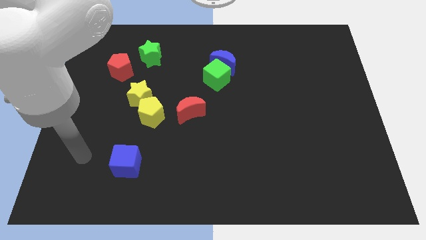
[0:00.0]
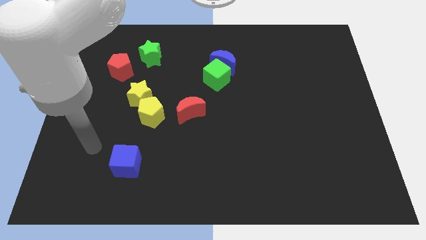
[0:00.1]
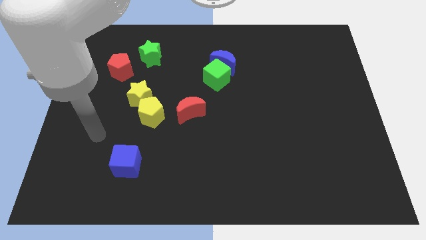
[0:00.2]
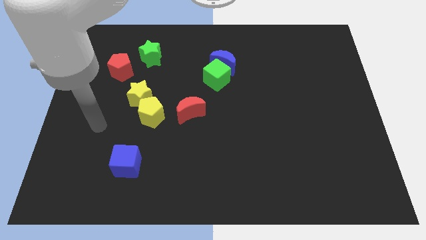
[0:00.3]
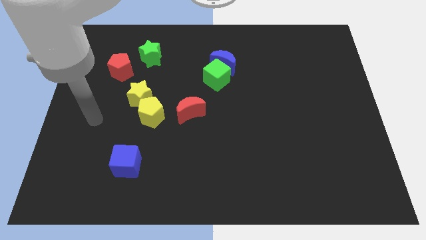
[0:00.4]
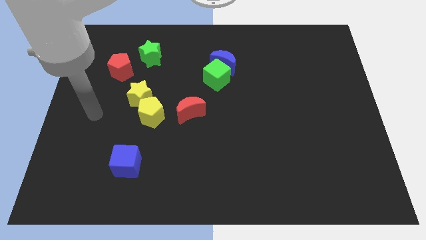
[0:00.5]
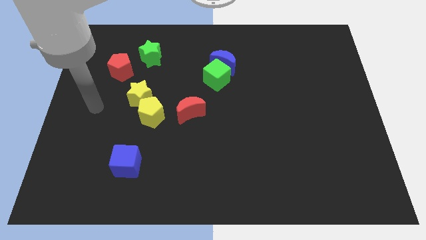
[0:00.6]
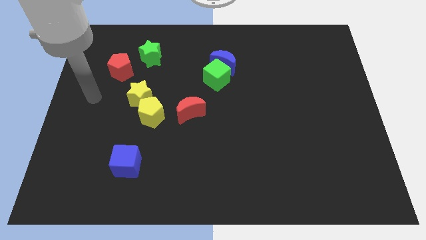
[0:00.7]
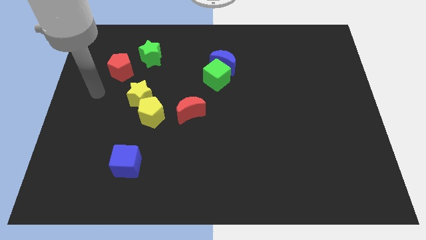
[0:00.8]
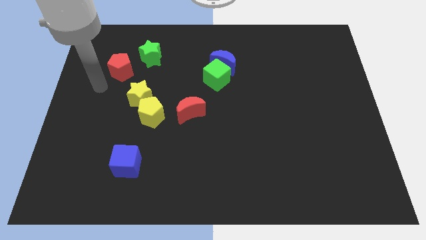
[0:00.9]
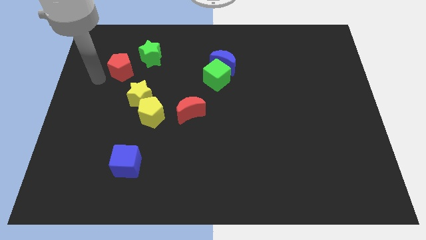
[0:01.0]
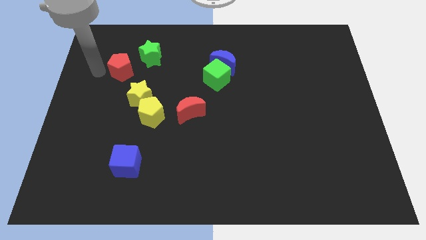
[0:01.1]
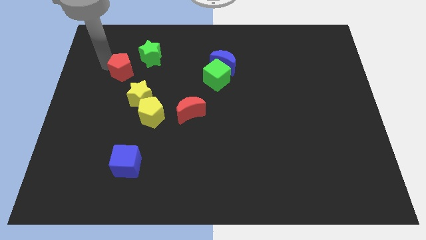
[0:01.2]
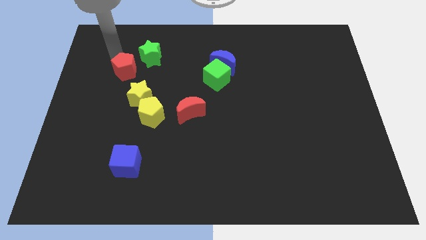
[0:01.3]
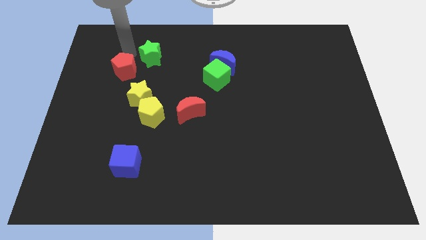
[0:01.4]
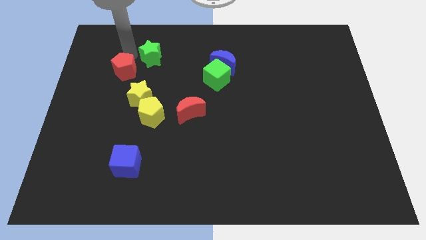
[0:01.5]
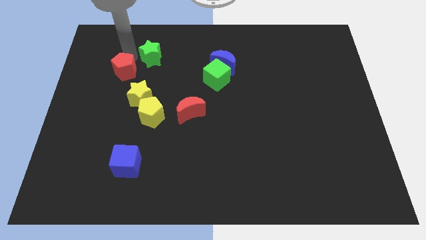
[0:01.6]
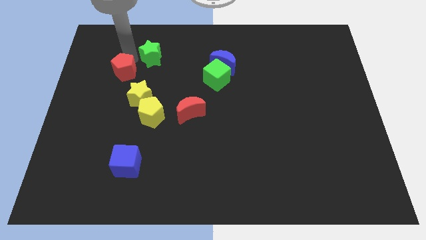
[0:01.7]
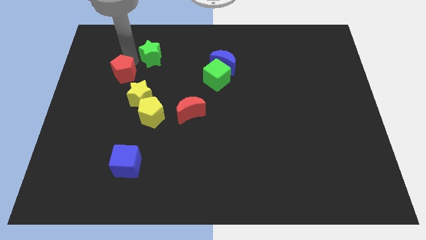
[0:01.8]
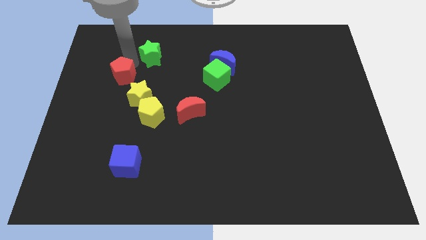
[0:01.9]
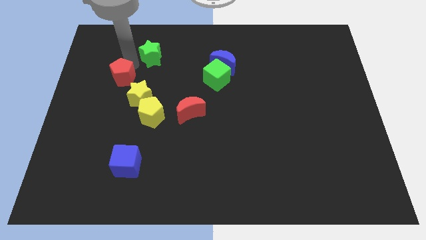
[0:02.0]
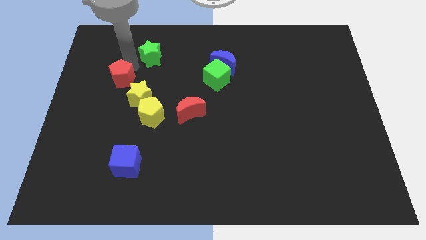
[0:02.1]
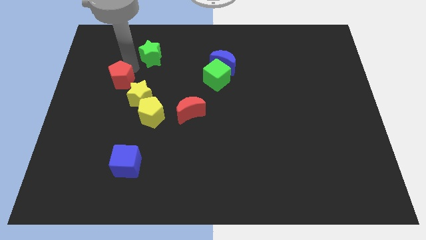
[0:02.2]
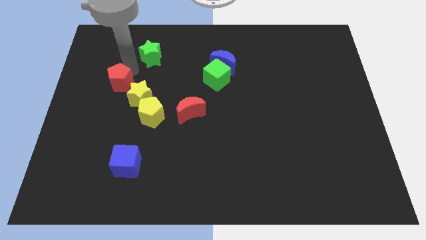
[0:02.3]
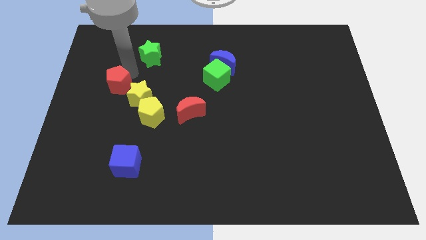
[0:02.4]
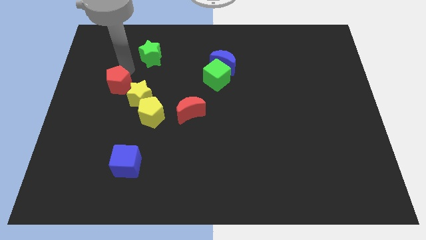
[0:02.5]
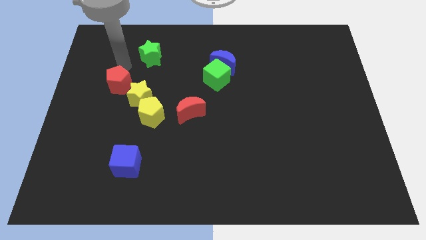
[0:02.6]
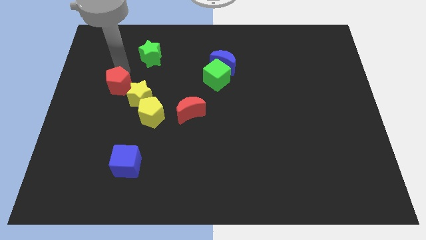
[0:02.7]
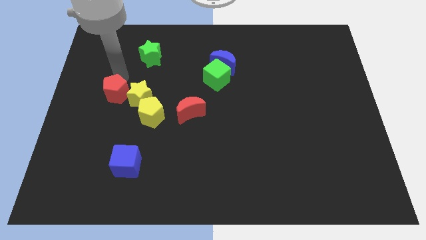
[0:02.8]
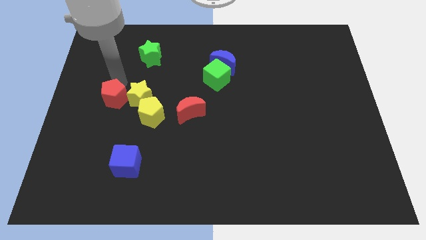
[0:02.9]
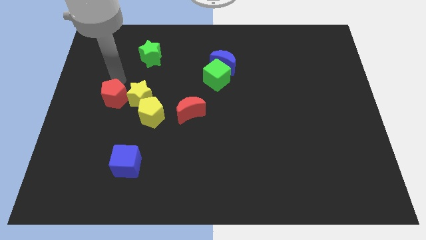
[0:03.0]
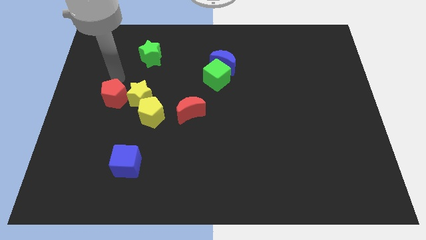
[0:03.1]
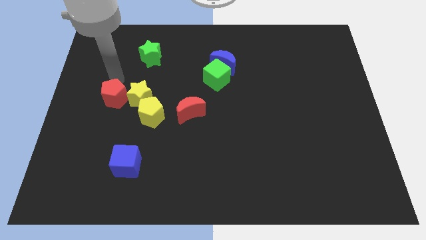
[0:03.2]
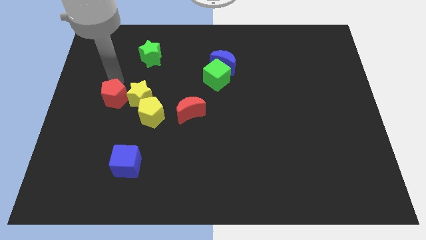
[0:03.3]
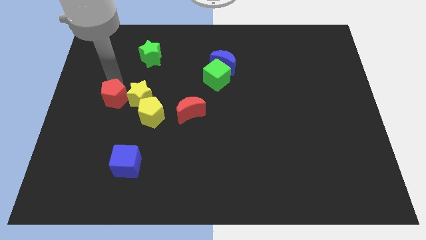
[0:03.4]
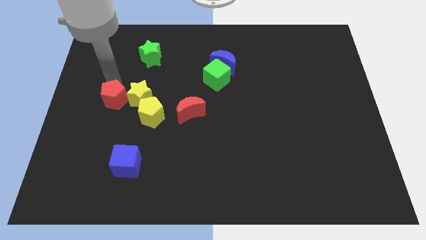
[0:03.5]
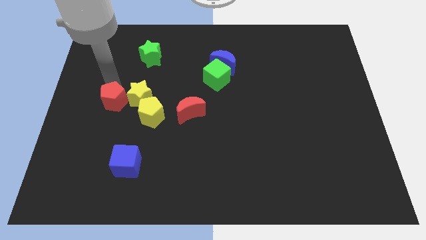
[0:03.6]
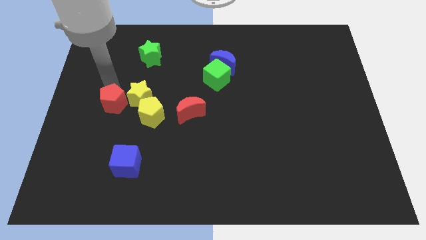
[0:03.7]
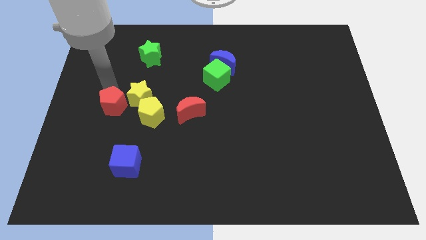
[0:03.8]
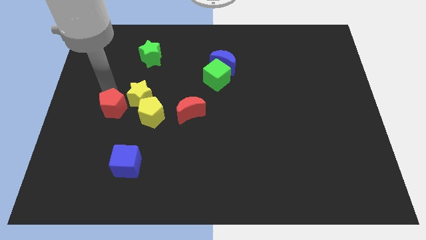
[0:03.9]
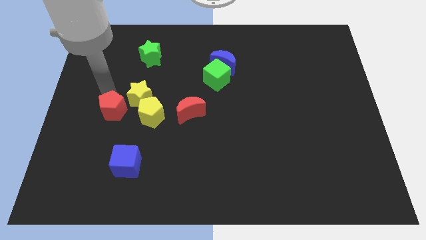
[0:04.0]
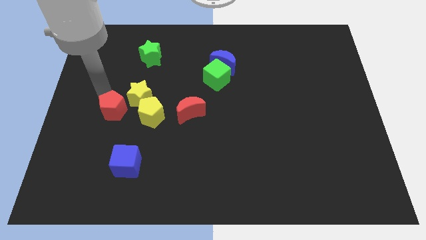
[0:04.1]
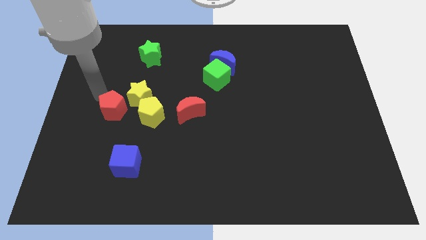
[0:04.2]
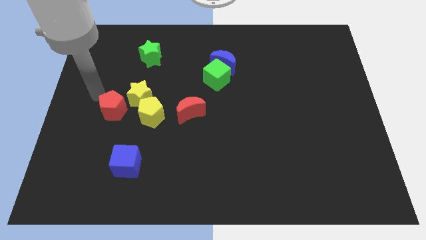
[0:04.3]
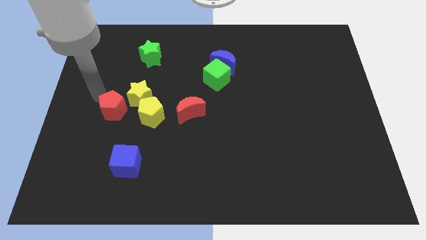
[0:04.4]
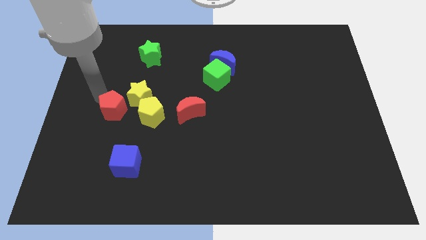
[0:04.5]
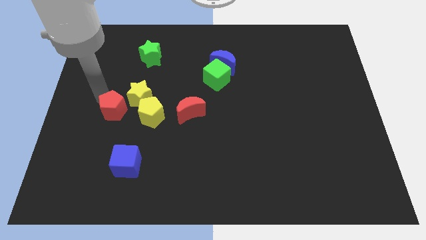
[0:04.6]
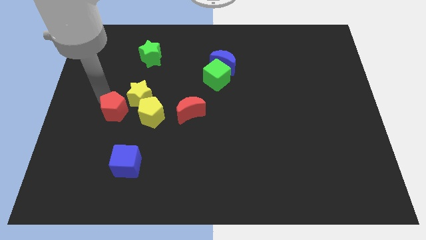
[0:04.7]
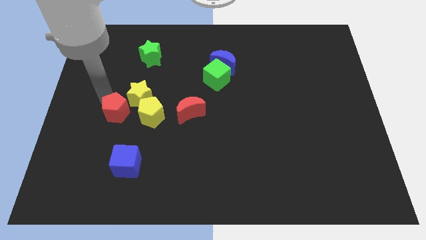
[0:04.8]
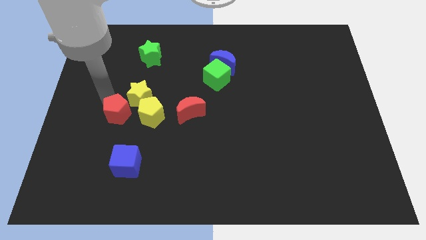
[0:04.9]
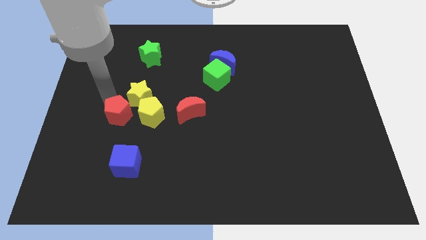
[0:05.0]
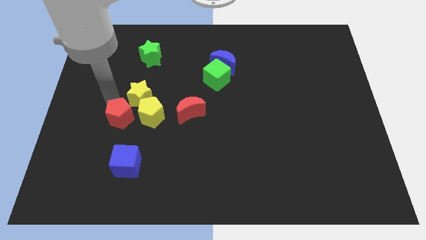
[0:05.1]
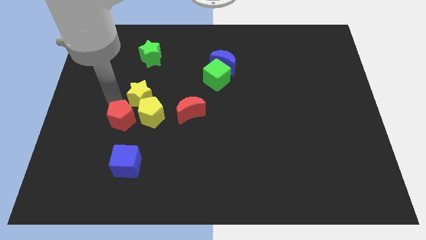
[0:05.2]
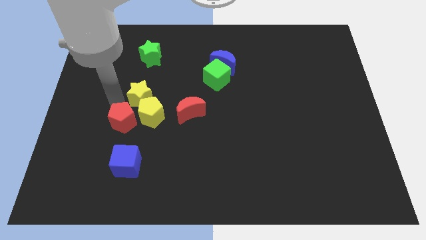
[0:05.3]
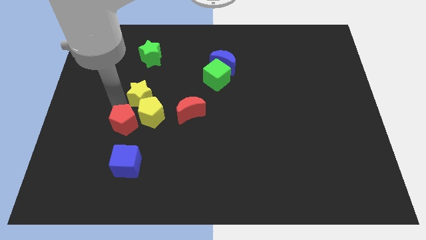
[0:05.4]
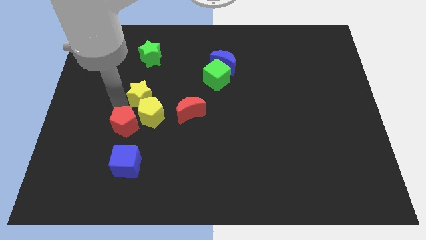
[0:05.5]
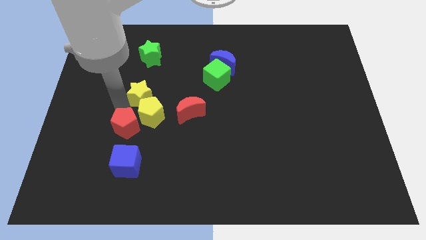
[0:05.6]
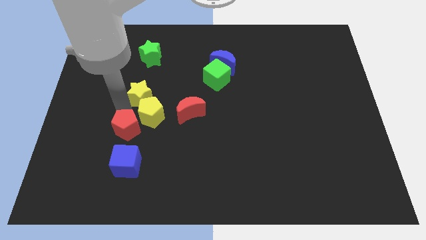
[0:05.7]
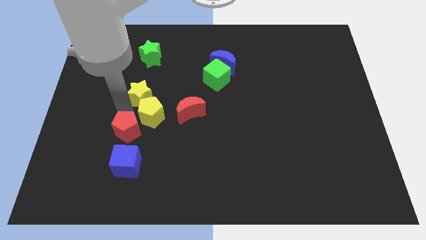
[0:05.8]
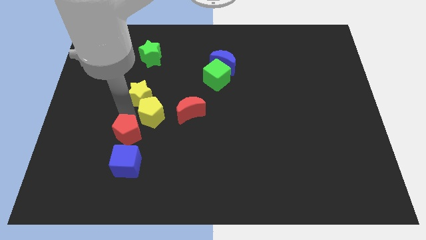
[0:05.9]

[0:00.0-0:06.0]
push the red pentagon to the bottom side of the yellow pentagon

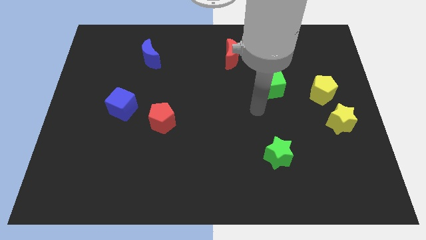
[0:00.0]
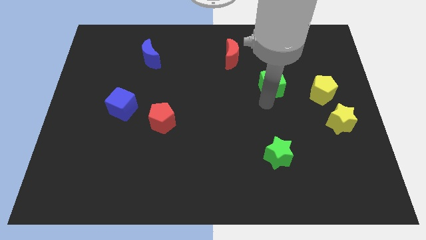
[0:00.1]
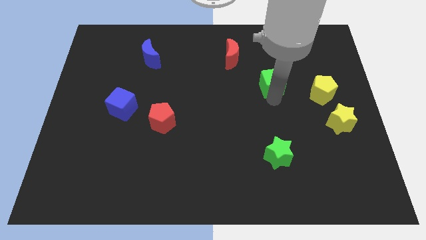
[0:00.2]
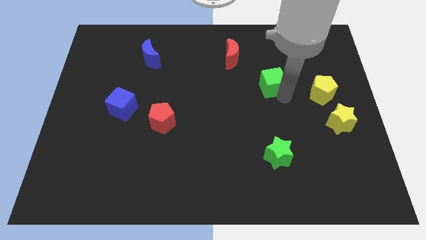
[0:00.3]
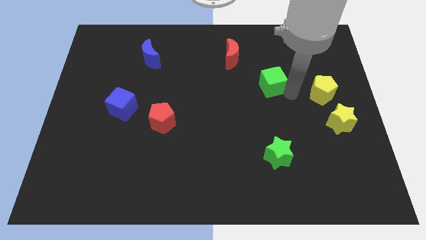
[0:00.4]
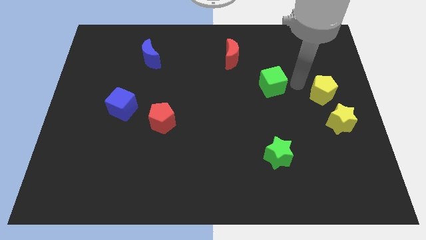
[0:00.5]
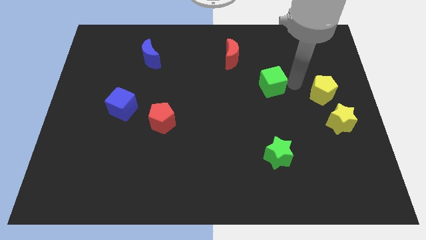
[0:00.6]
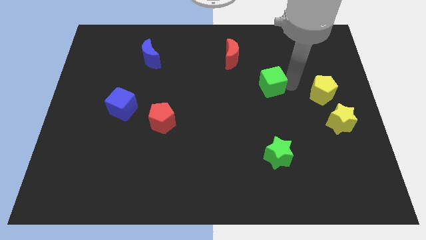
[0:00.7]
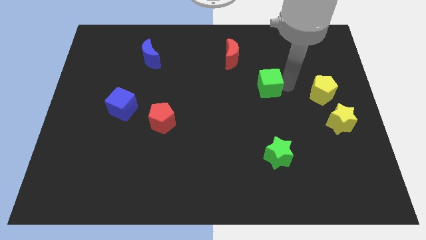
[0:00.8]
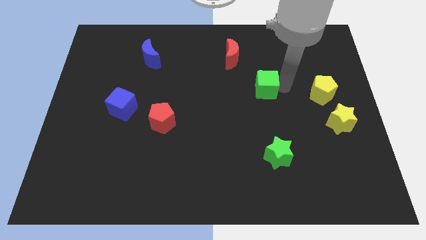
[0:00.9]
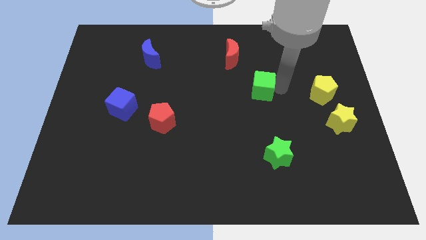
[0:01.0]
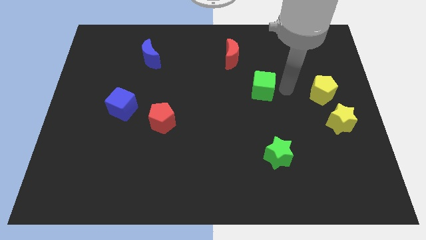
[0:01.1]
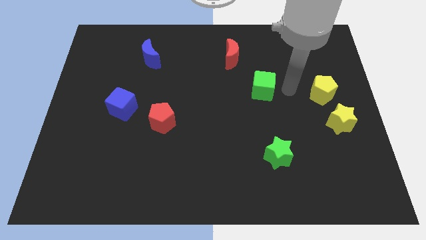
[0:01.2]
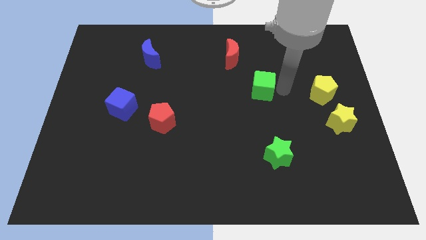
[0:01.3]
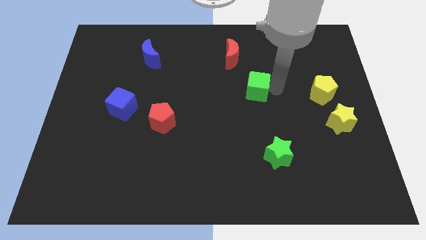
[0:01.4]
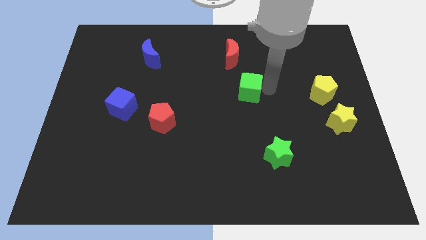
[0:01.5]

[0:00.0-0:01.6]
move the green cube below the red moon
